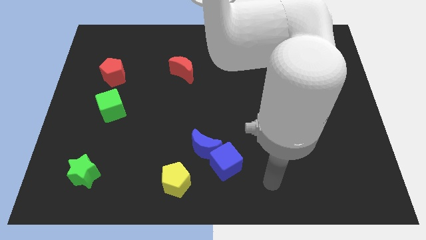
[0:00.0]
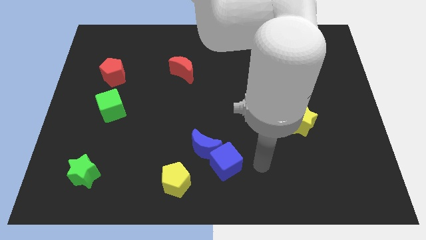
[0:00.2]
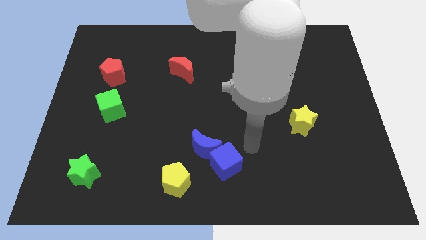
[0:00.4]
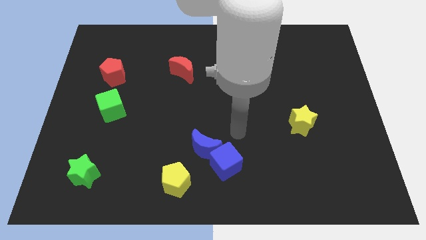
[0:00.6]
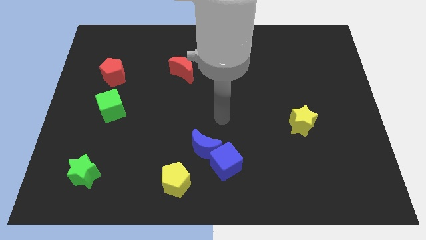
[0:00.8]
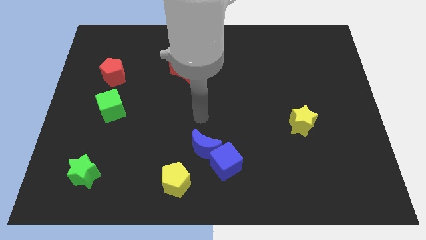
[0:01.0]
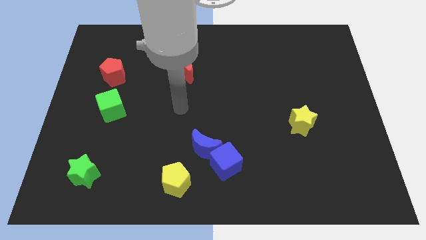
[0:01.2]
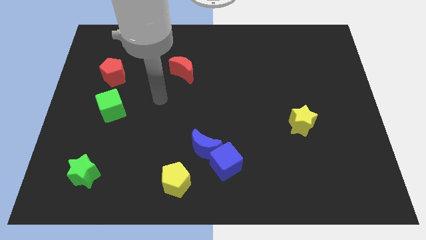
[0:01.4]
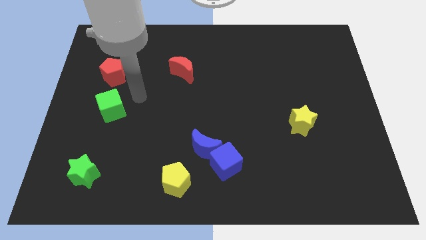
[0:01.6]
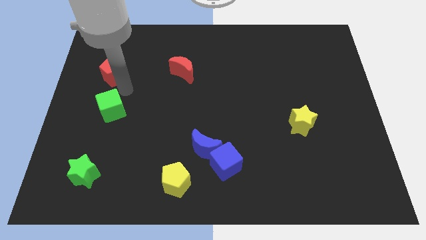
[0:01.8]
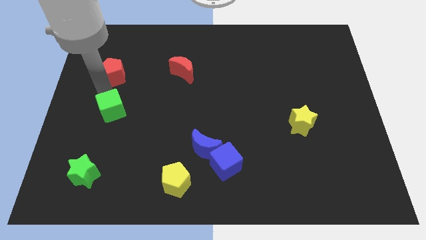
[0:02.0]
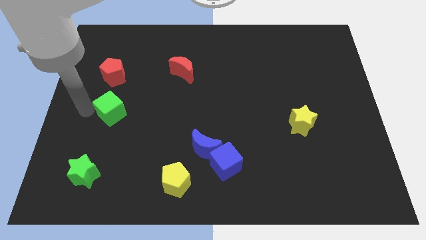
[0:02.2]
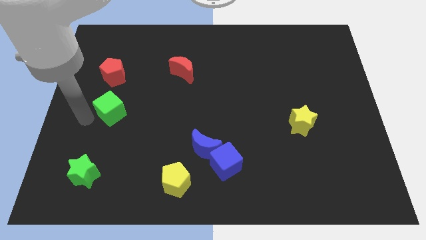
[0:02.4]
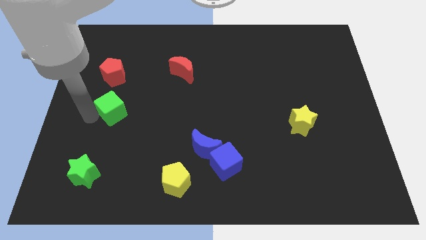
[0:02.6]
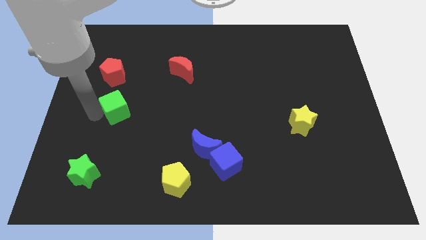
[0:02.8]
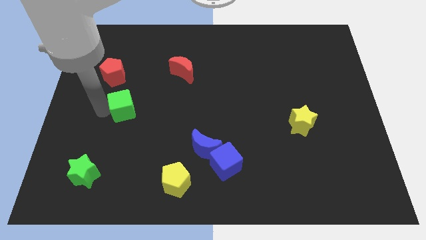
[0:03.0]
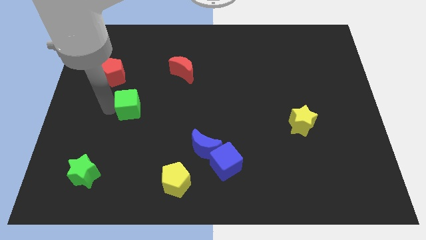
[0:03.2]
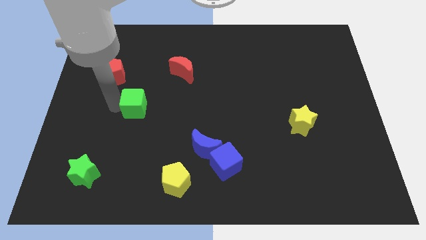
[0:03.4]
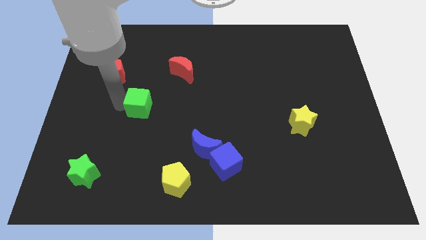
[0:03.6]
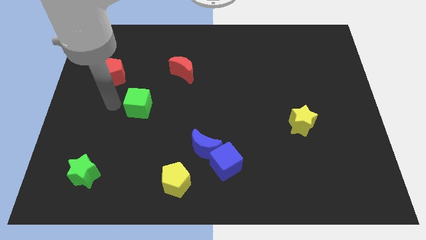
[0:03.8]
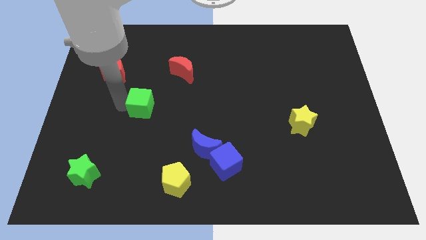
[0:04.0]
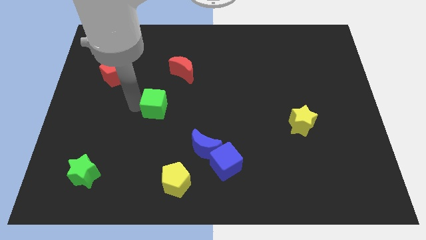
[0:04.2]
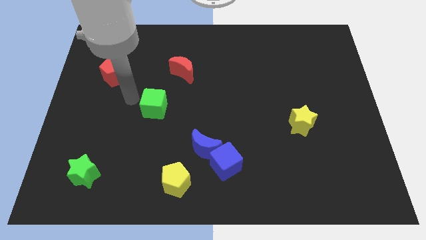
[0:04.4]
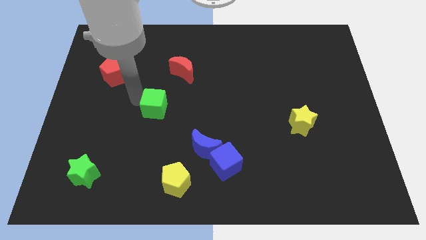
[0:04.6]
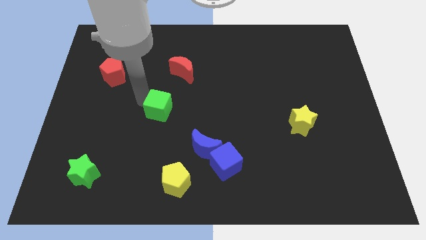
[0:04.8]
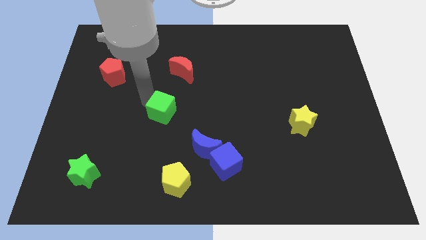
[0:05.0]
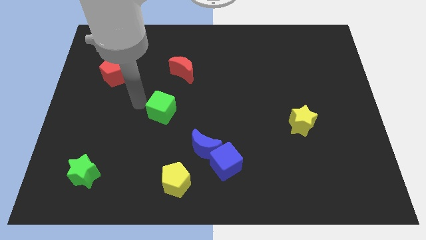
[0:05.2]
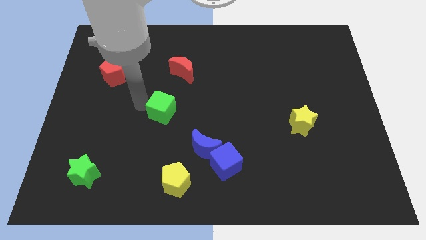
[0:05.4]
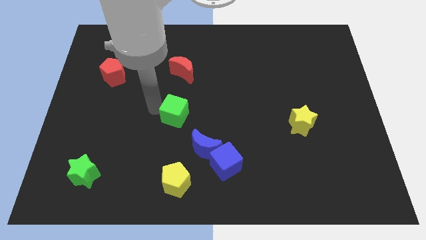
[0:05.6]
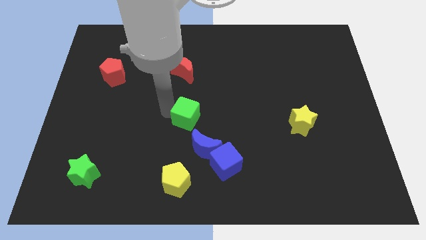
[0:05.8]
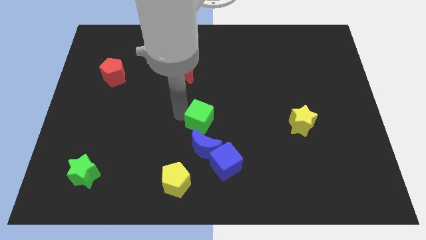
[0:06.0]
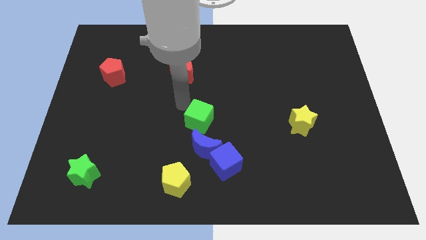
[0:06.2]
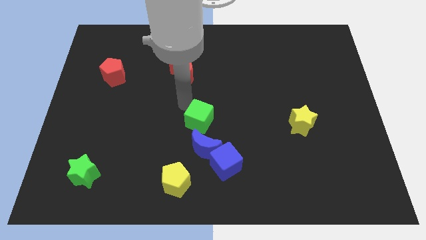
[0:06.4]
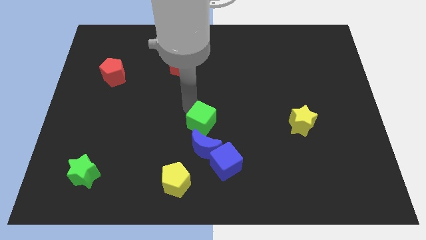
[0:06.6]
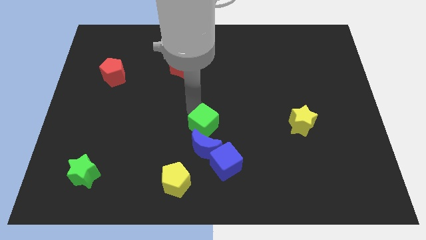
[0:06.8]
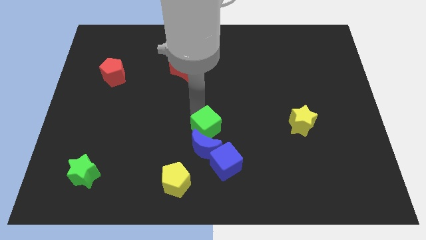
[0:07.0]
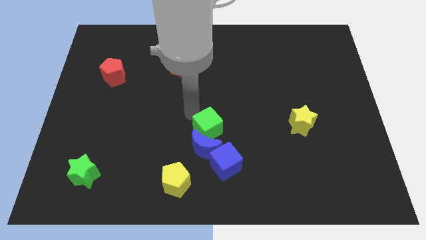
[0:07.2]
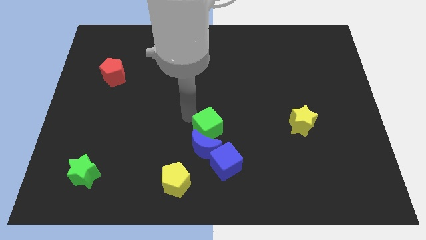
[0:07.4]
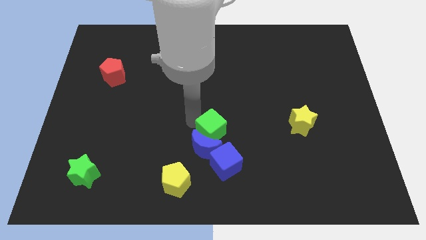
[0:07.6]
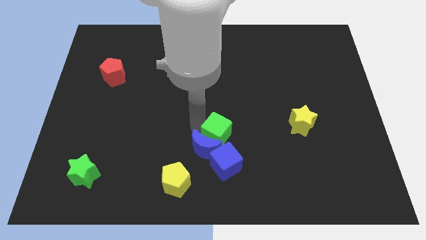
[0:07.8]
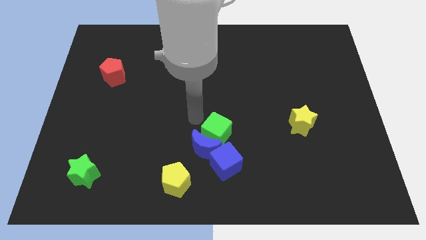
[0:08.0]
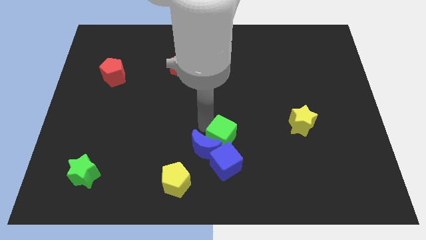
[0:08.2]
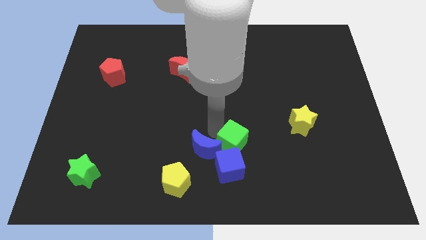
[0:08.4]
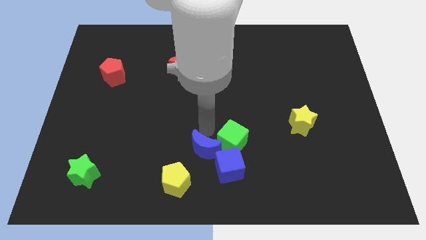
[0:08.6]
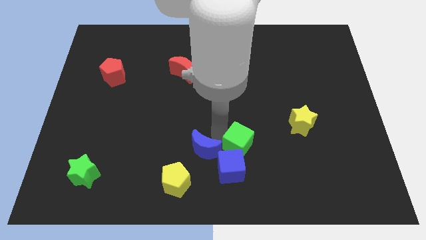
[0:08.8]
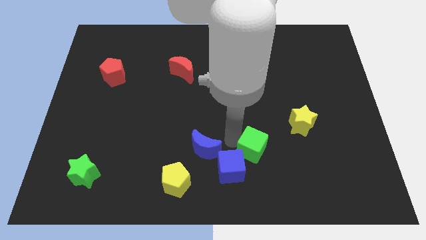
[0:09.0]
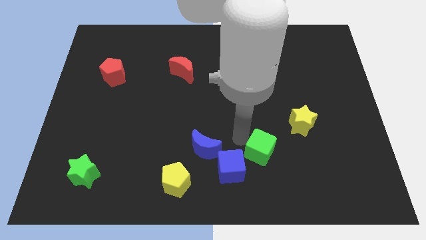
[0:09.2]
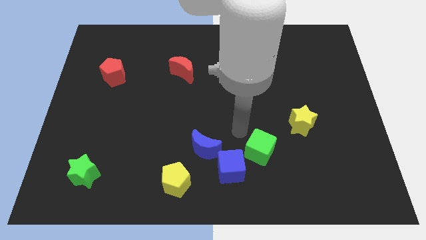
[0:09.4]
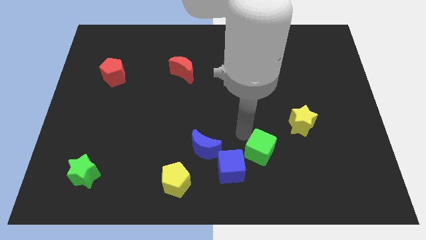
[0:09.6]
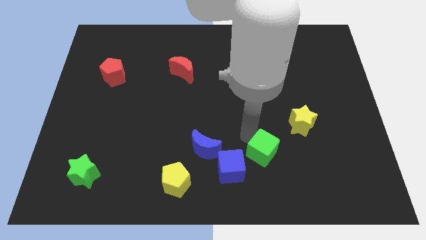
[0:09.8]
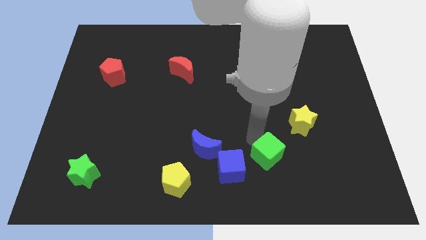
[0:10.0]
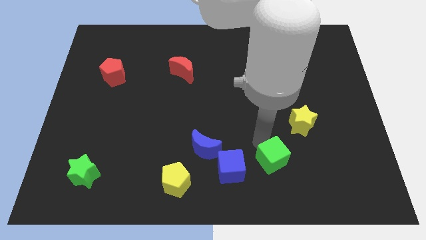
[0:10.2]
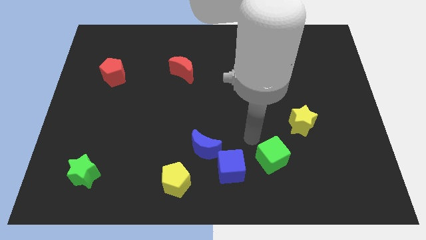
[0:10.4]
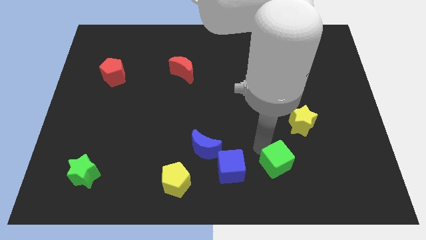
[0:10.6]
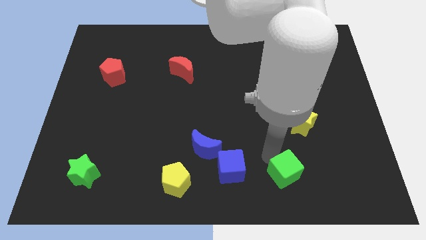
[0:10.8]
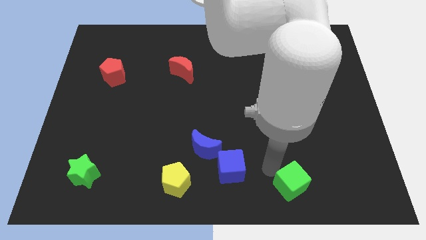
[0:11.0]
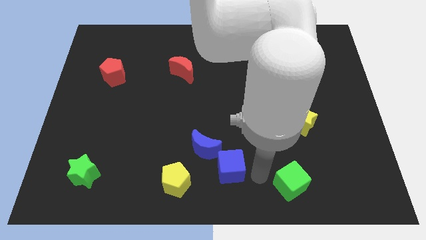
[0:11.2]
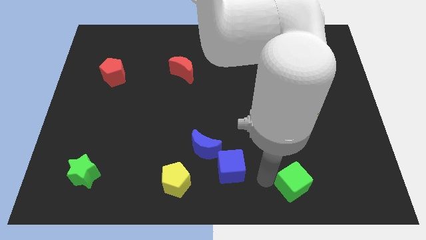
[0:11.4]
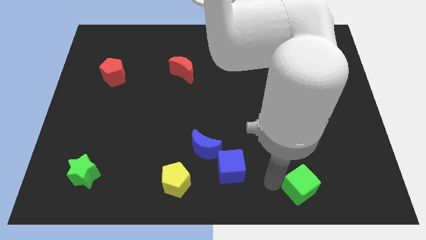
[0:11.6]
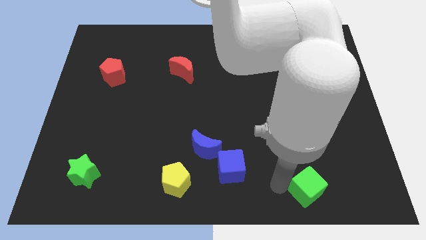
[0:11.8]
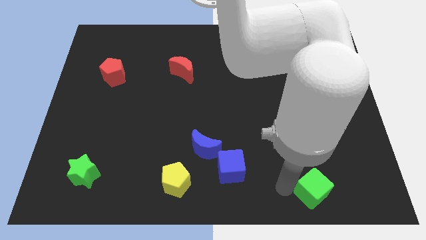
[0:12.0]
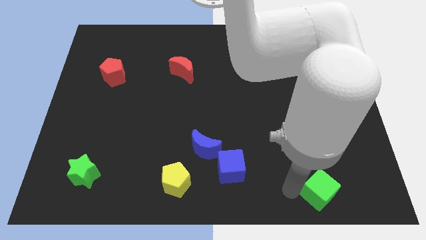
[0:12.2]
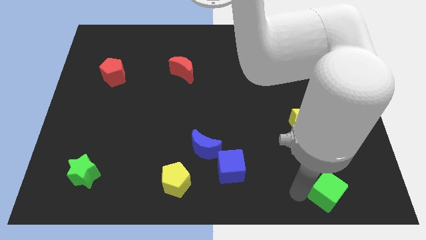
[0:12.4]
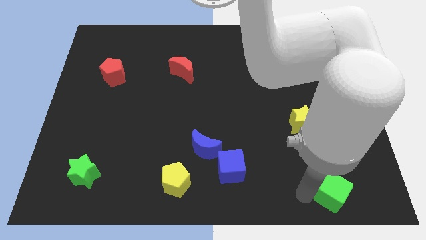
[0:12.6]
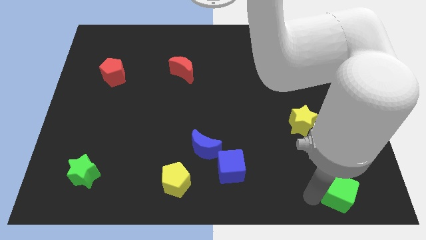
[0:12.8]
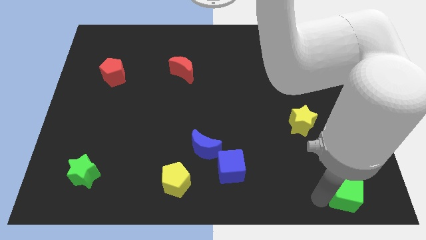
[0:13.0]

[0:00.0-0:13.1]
slide the green cube to the bottom right corner
